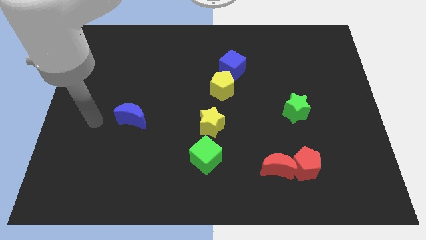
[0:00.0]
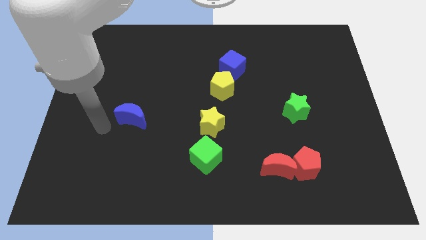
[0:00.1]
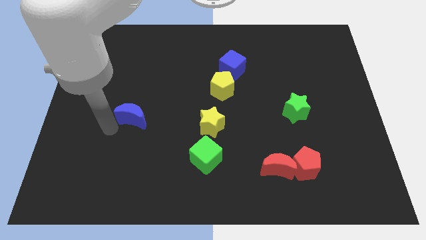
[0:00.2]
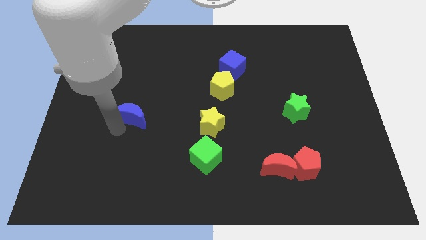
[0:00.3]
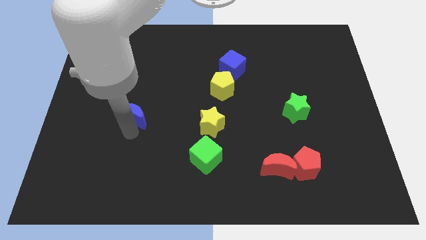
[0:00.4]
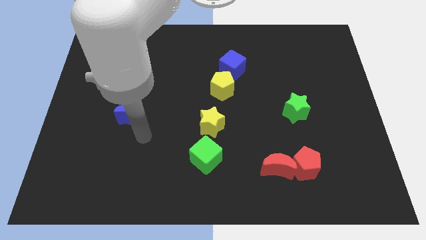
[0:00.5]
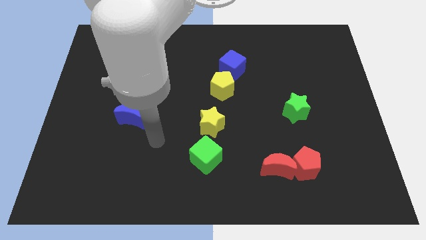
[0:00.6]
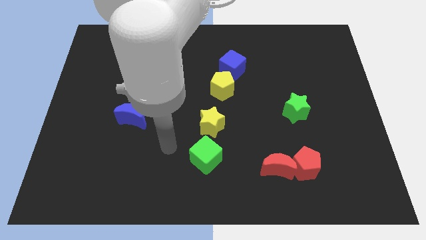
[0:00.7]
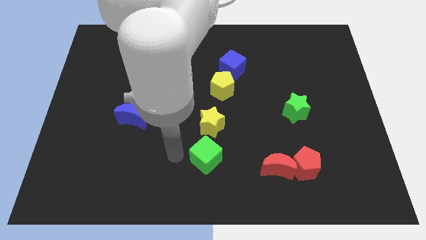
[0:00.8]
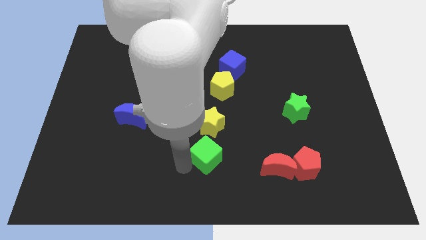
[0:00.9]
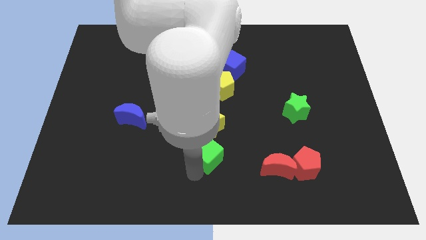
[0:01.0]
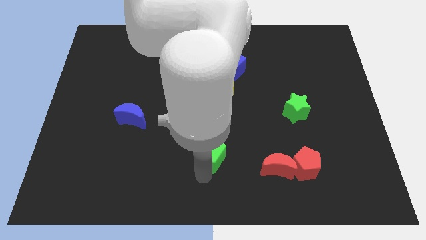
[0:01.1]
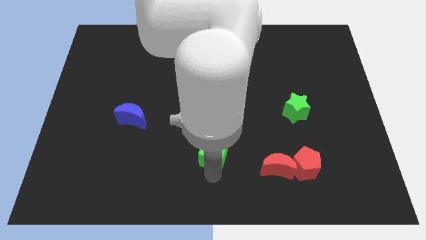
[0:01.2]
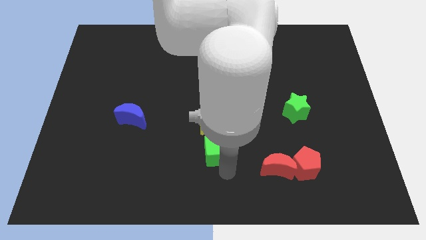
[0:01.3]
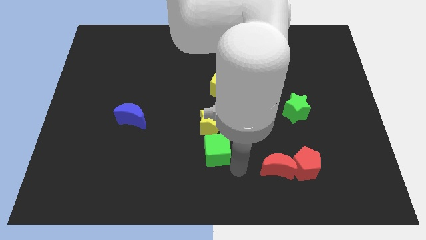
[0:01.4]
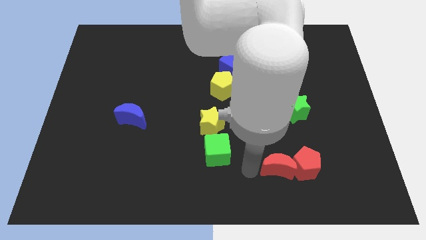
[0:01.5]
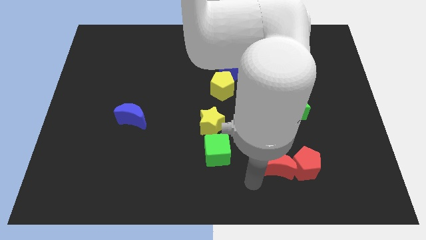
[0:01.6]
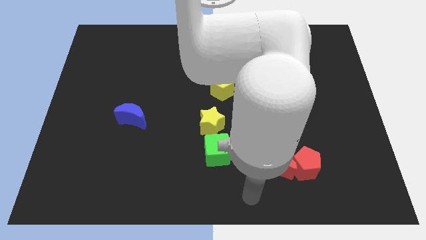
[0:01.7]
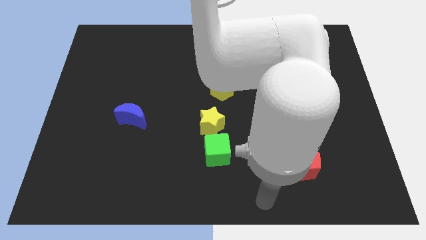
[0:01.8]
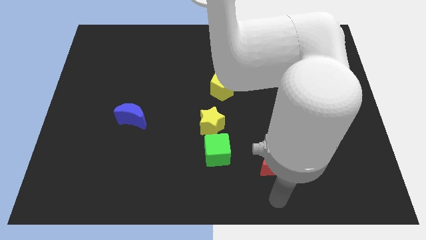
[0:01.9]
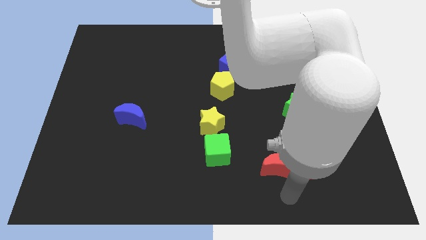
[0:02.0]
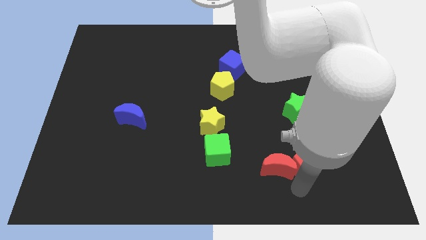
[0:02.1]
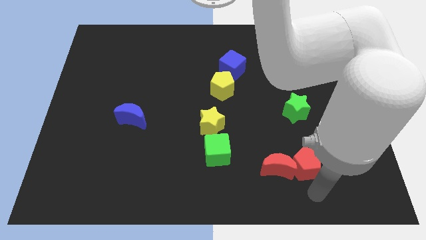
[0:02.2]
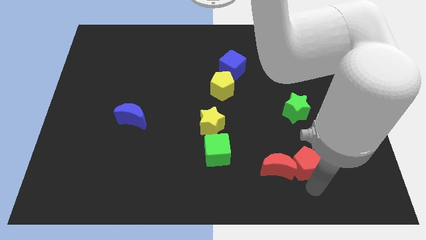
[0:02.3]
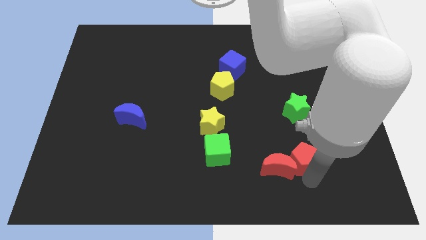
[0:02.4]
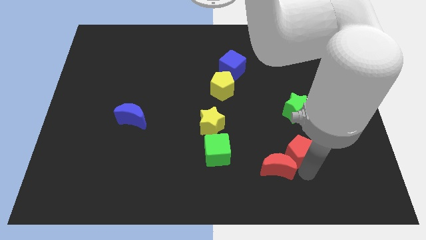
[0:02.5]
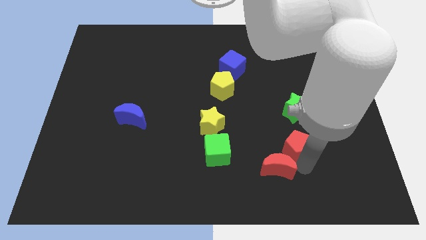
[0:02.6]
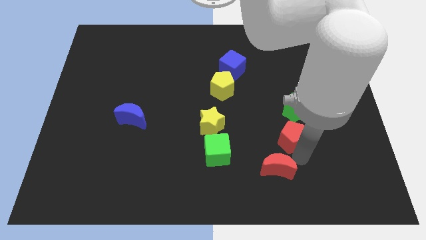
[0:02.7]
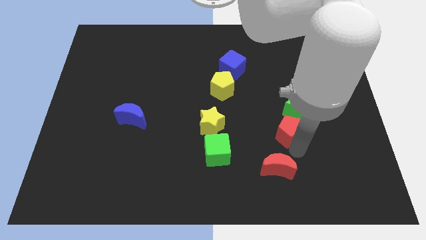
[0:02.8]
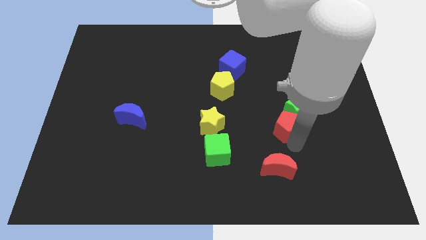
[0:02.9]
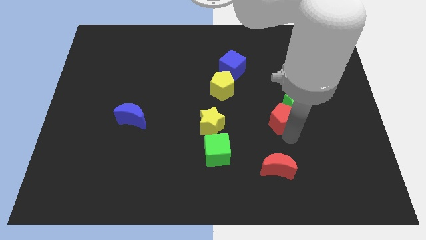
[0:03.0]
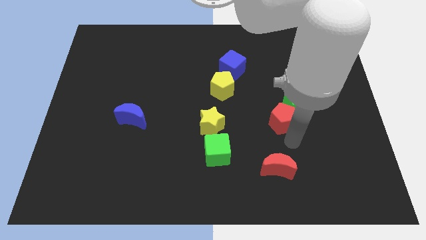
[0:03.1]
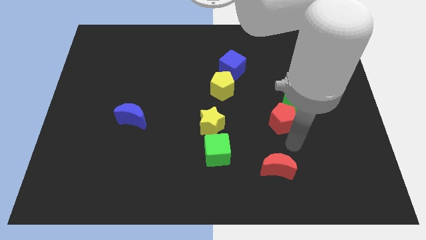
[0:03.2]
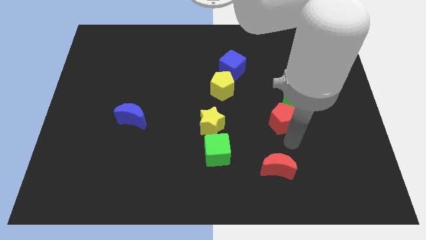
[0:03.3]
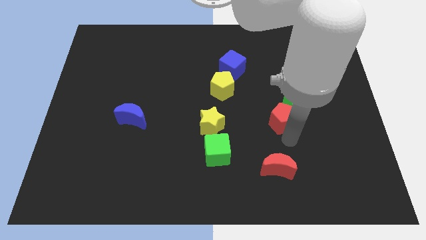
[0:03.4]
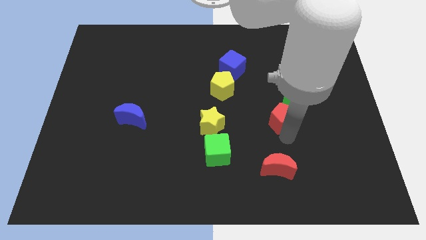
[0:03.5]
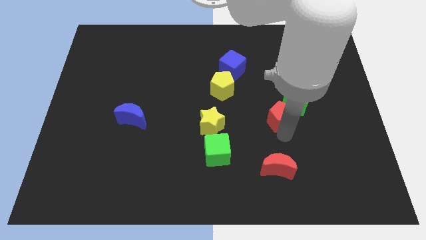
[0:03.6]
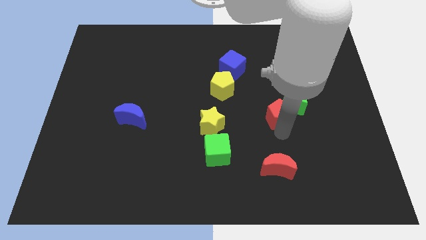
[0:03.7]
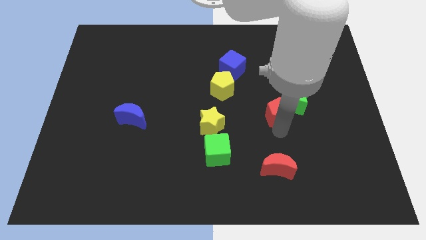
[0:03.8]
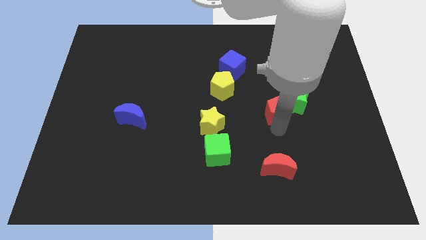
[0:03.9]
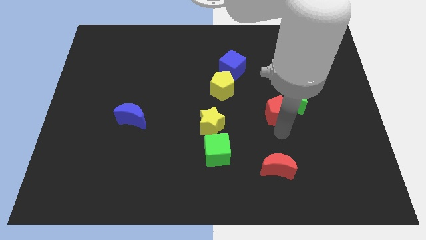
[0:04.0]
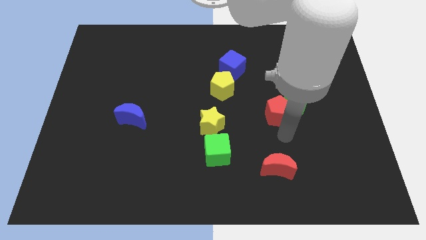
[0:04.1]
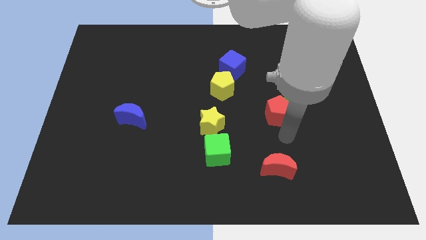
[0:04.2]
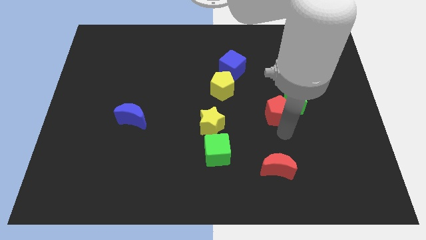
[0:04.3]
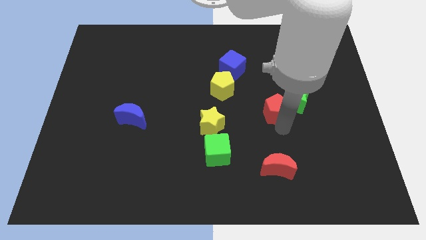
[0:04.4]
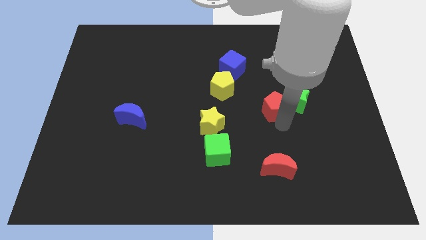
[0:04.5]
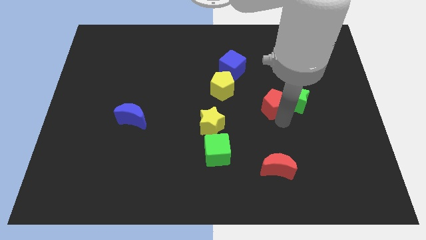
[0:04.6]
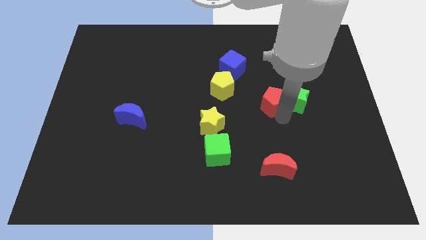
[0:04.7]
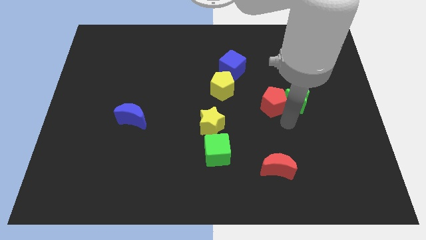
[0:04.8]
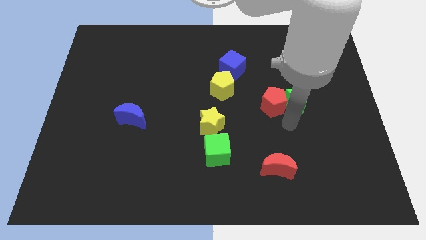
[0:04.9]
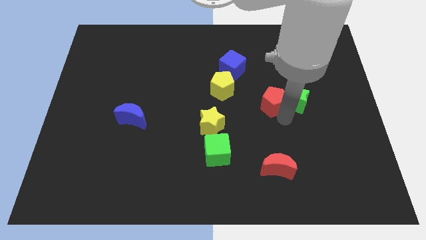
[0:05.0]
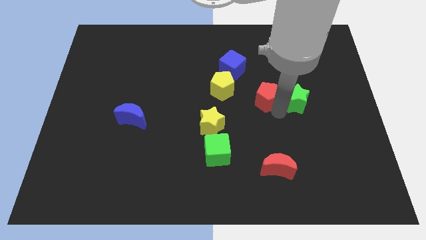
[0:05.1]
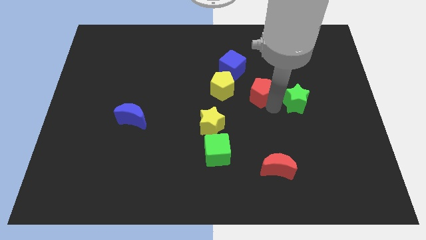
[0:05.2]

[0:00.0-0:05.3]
put the red pentagon to the bottom right of the blue cube

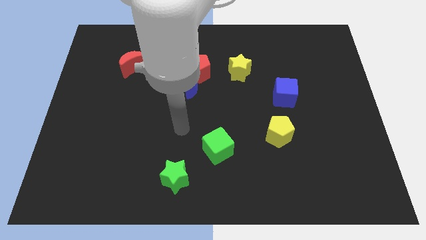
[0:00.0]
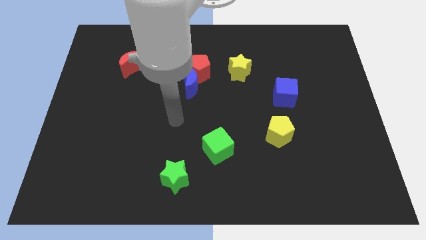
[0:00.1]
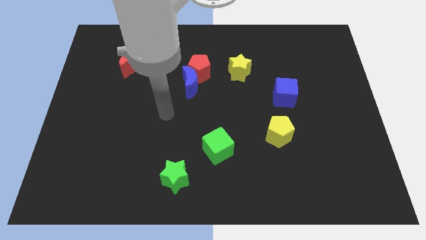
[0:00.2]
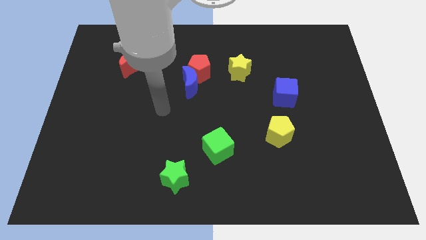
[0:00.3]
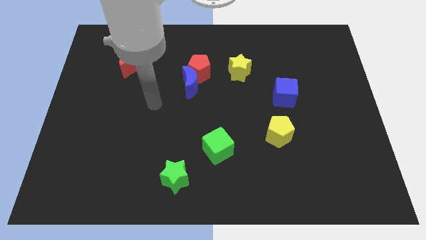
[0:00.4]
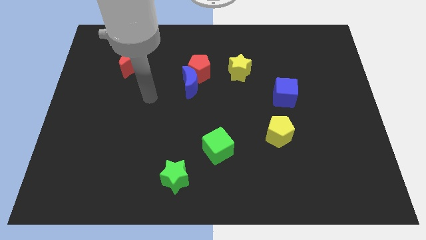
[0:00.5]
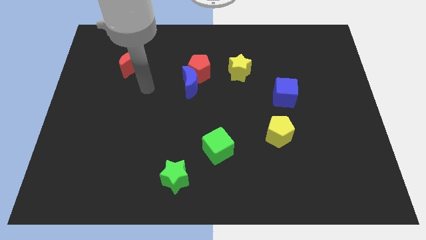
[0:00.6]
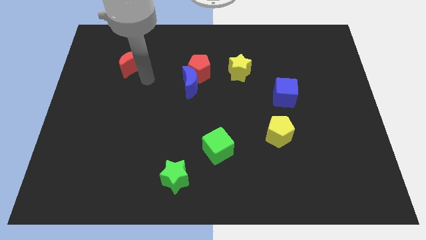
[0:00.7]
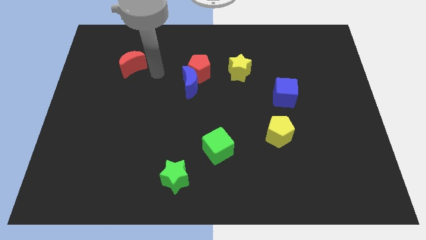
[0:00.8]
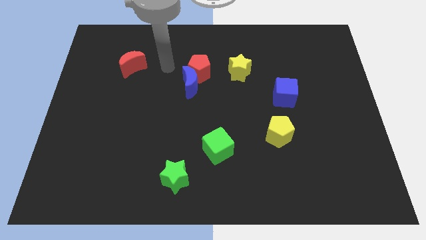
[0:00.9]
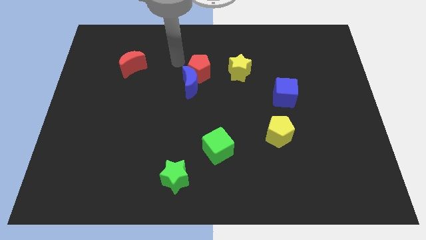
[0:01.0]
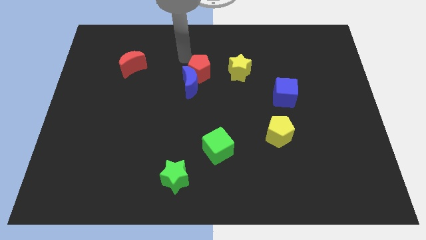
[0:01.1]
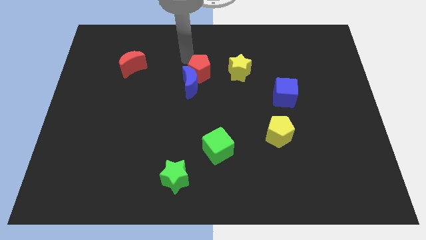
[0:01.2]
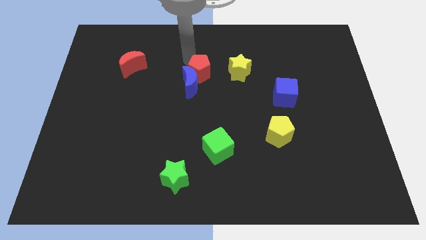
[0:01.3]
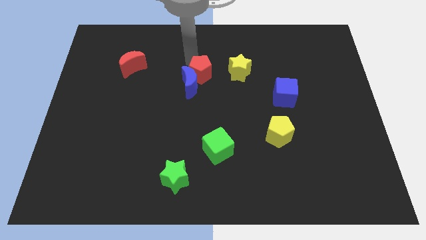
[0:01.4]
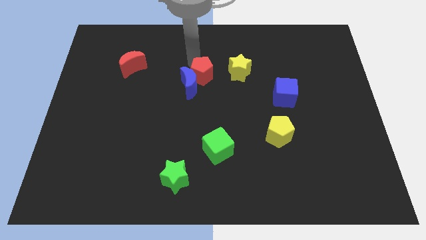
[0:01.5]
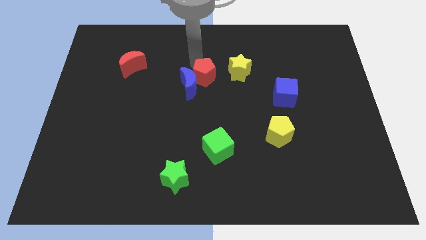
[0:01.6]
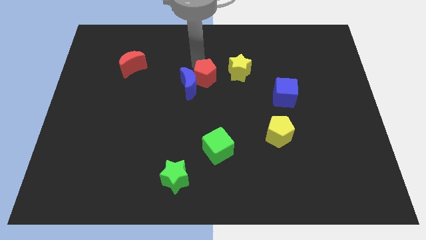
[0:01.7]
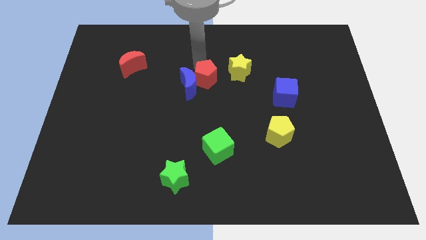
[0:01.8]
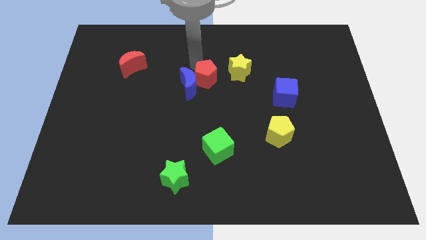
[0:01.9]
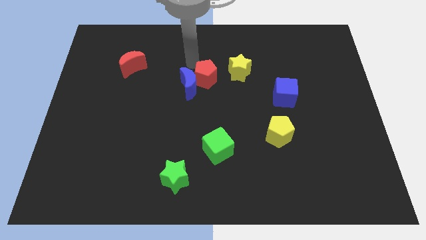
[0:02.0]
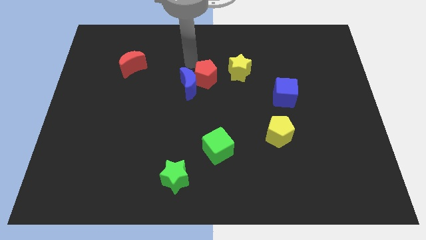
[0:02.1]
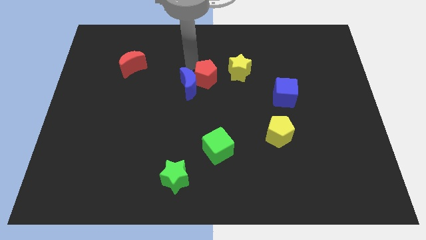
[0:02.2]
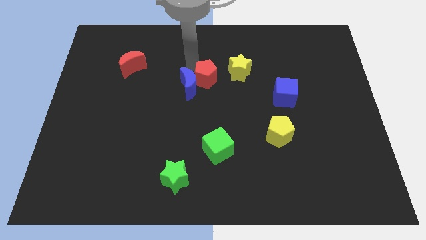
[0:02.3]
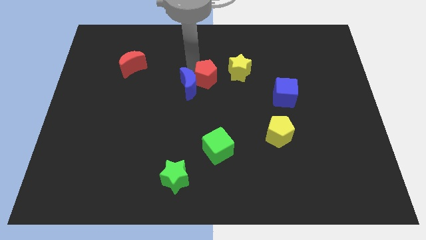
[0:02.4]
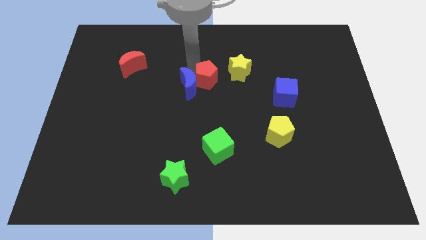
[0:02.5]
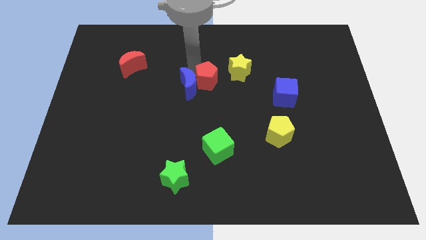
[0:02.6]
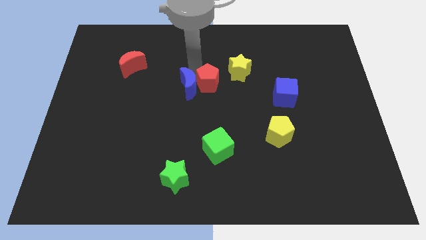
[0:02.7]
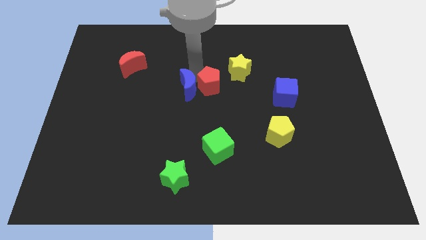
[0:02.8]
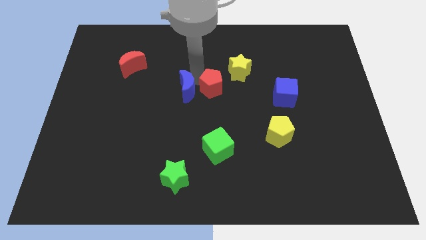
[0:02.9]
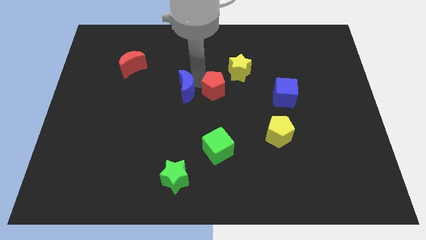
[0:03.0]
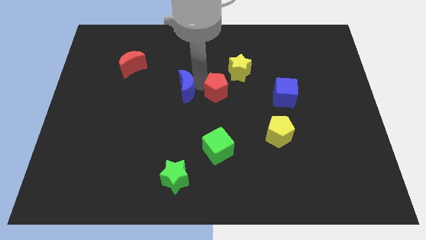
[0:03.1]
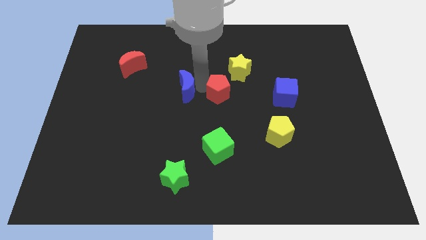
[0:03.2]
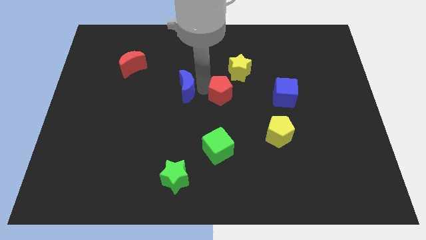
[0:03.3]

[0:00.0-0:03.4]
push the red pentagon to the bottom side of the yellow star
